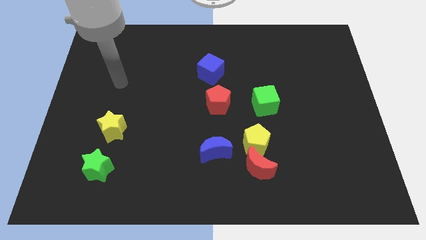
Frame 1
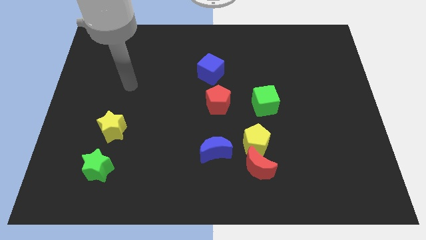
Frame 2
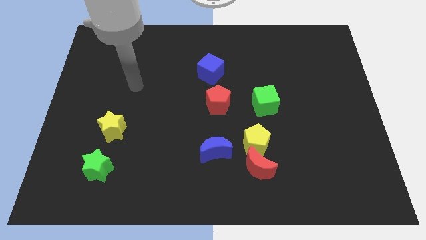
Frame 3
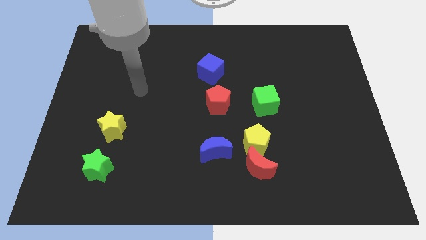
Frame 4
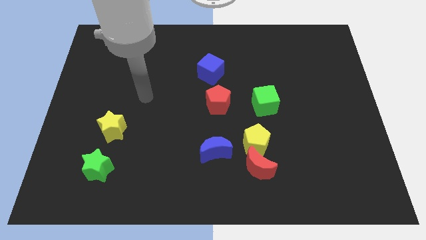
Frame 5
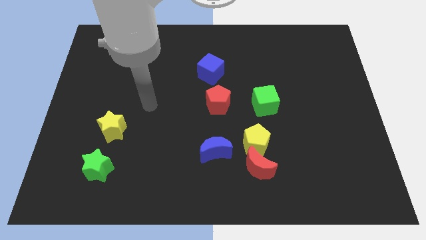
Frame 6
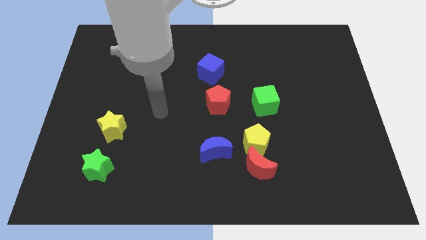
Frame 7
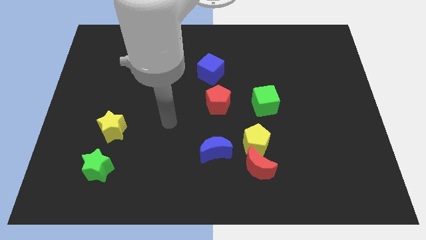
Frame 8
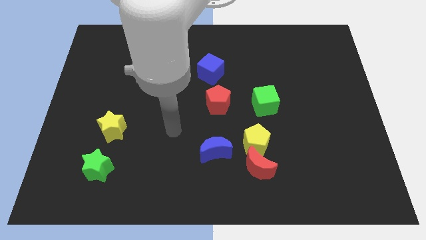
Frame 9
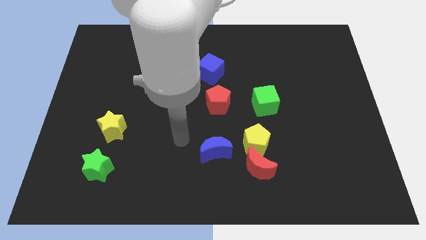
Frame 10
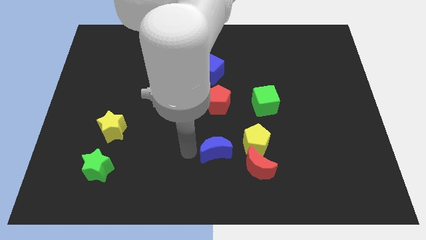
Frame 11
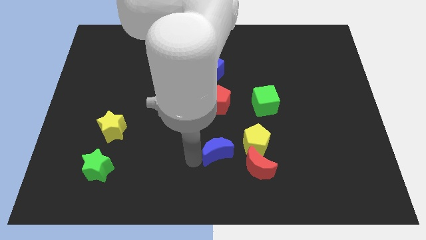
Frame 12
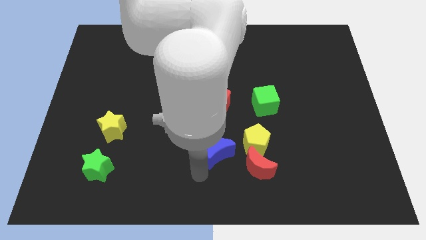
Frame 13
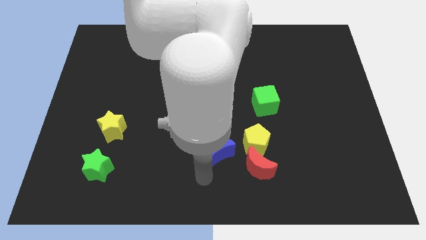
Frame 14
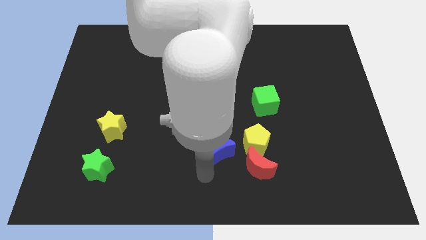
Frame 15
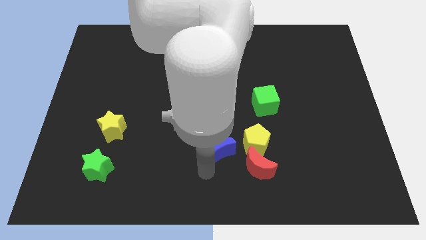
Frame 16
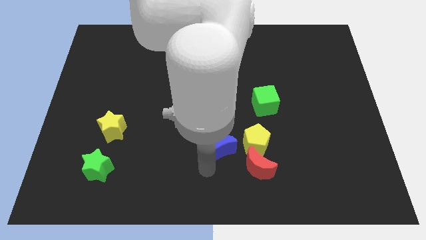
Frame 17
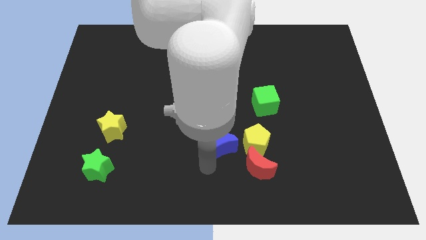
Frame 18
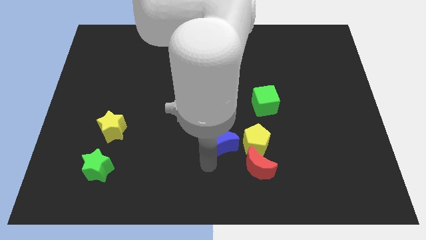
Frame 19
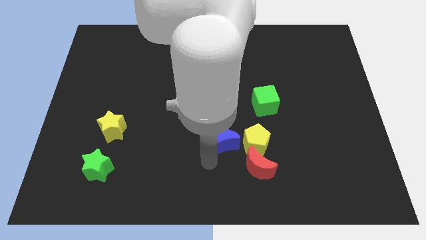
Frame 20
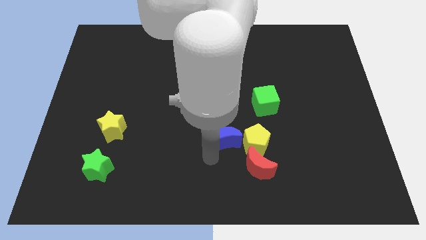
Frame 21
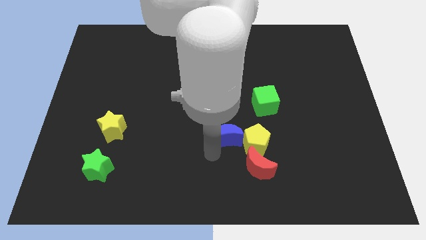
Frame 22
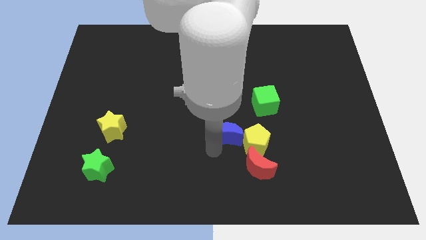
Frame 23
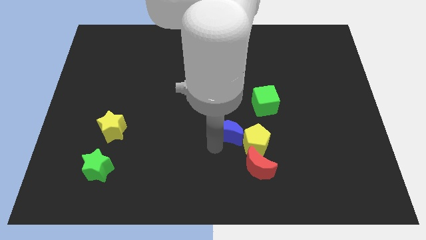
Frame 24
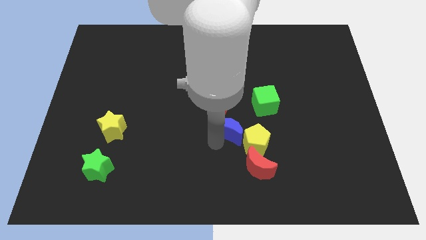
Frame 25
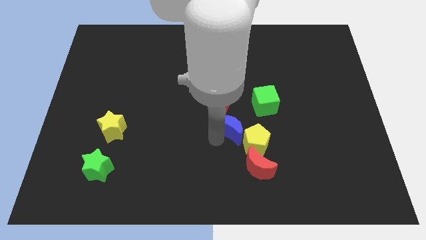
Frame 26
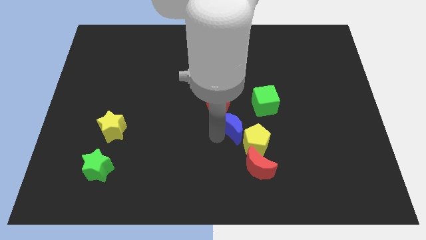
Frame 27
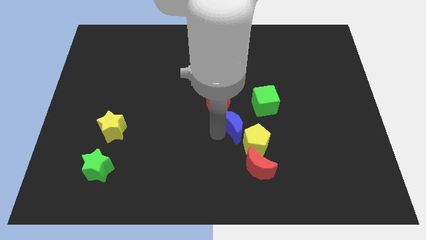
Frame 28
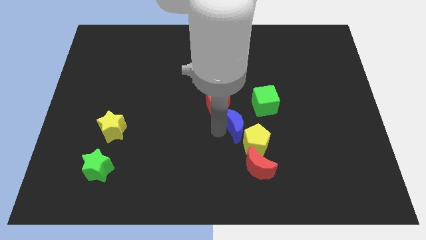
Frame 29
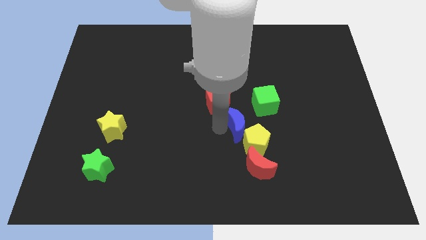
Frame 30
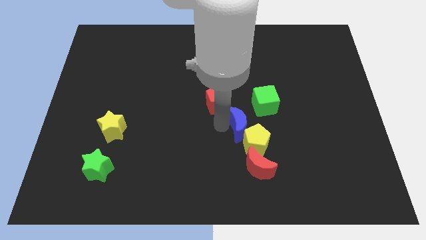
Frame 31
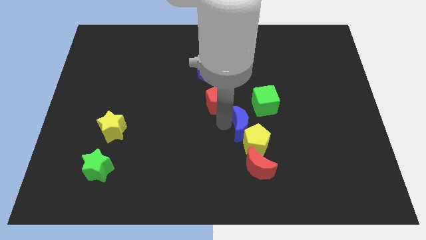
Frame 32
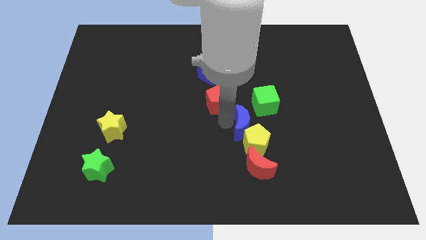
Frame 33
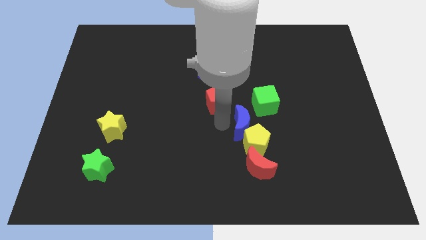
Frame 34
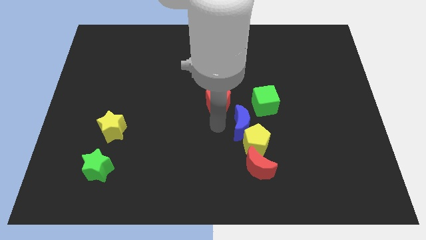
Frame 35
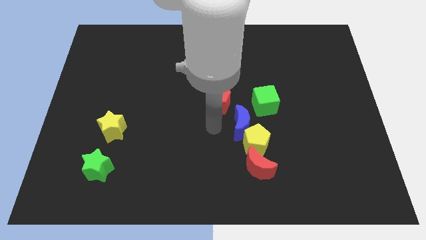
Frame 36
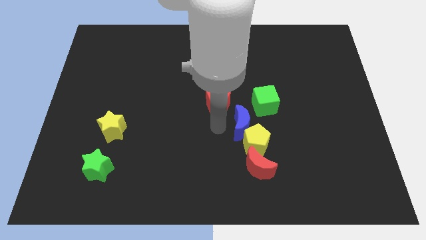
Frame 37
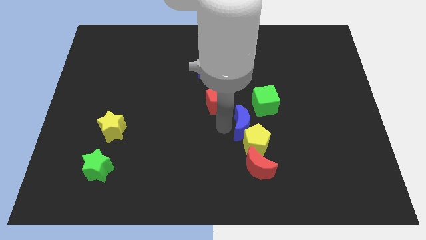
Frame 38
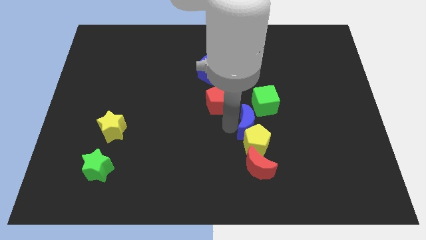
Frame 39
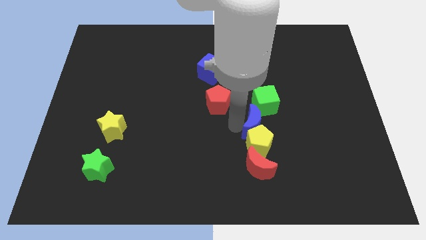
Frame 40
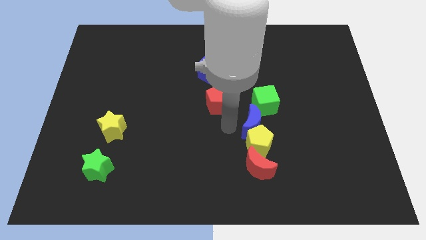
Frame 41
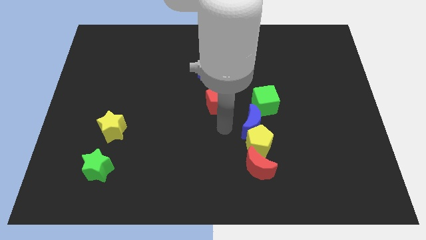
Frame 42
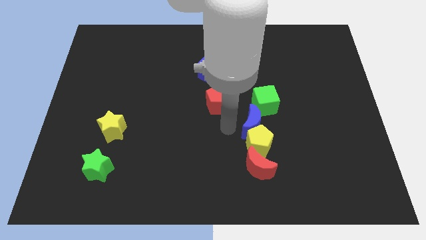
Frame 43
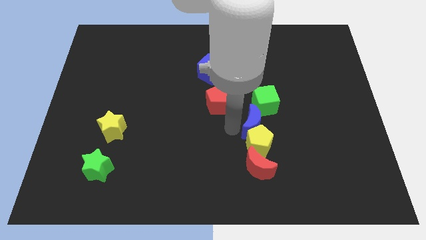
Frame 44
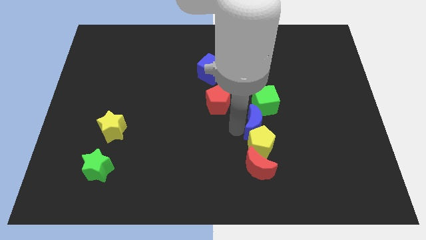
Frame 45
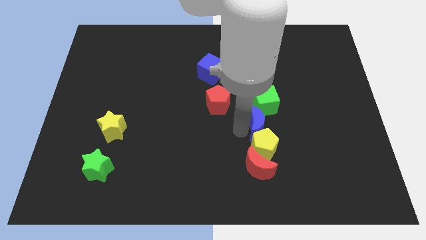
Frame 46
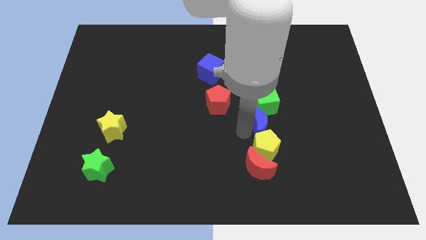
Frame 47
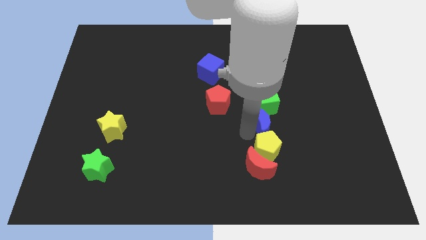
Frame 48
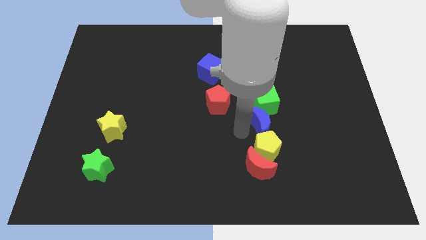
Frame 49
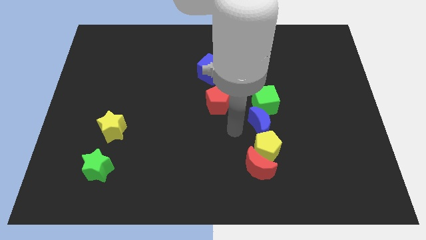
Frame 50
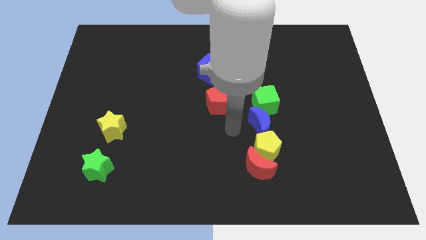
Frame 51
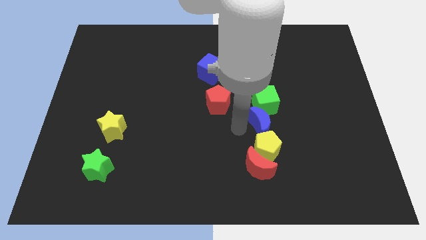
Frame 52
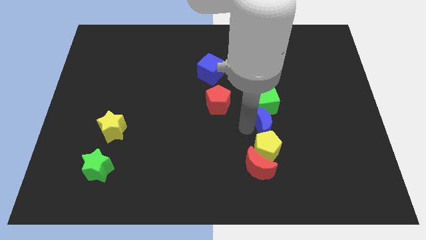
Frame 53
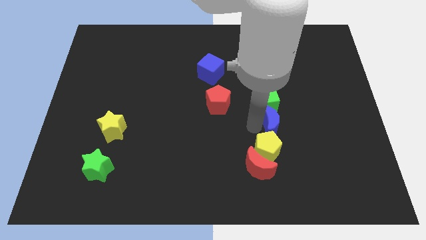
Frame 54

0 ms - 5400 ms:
put the blue moon to the bottom right side of the green cube

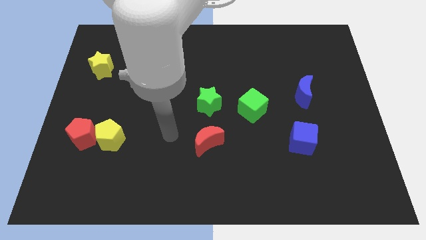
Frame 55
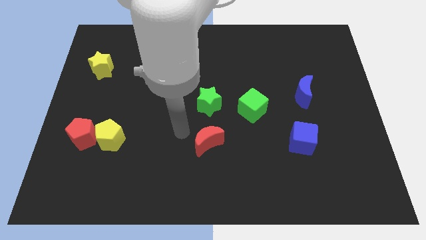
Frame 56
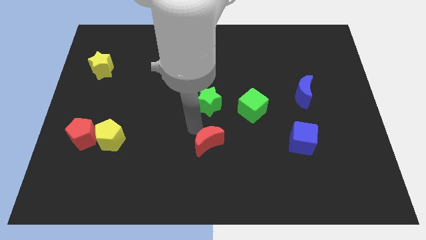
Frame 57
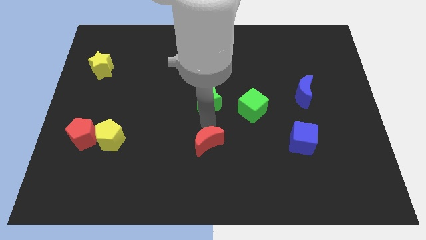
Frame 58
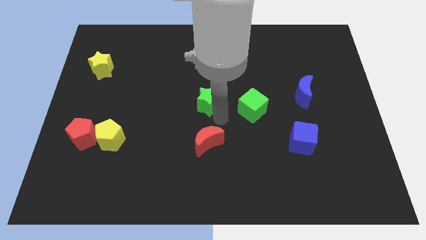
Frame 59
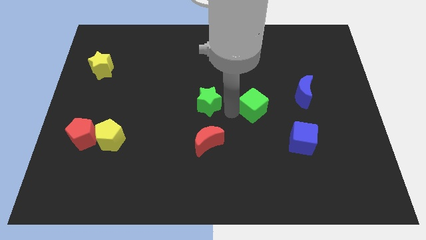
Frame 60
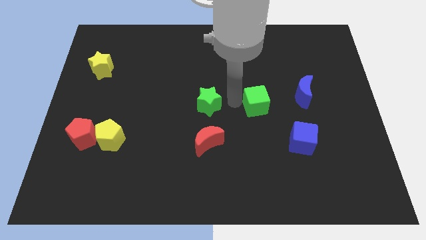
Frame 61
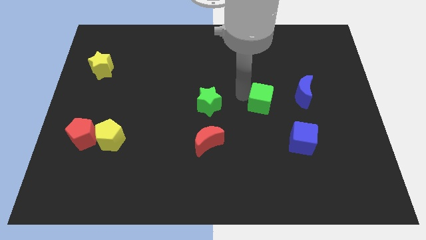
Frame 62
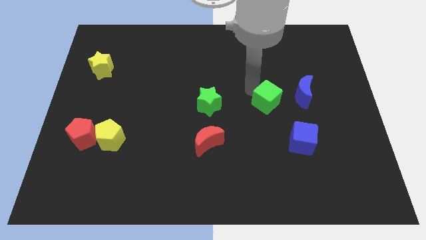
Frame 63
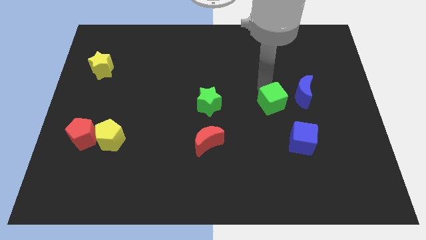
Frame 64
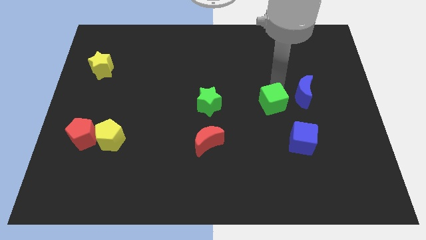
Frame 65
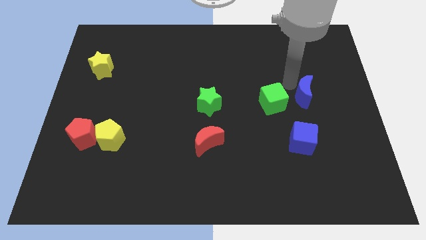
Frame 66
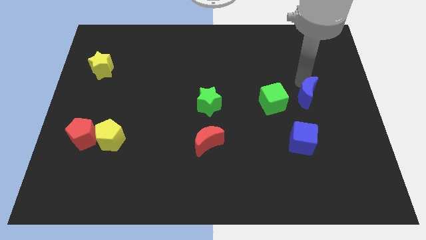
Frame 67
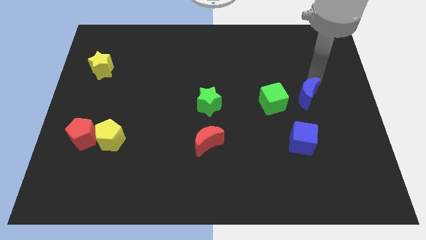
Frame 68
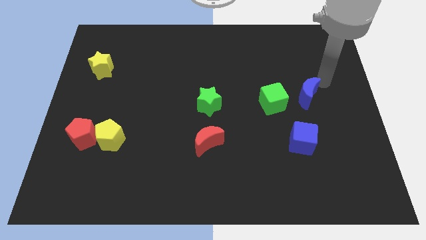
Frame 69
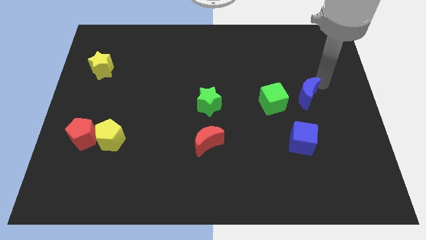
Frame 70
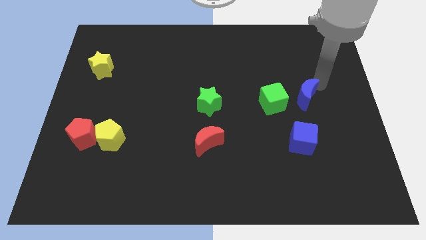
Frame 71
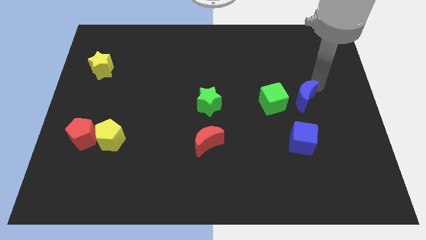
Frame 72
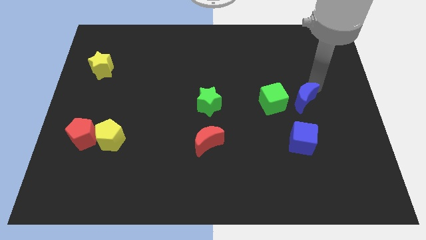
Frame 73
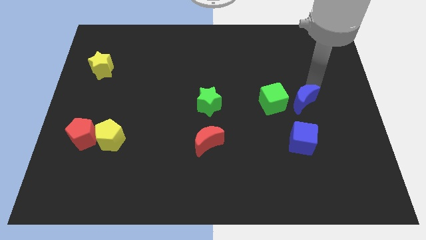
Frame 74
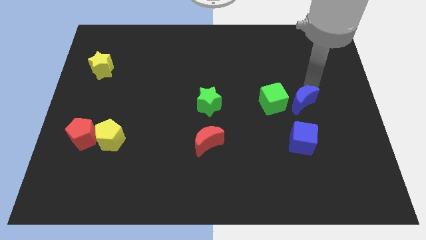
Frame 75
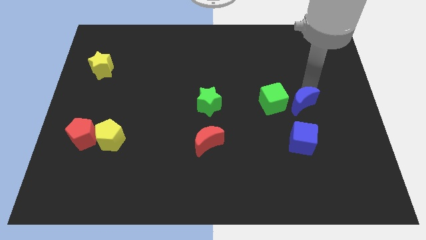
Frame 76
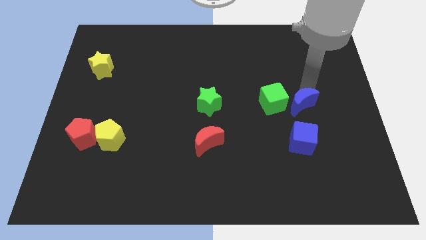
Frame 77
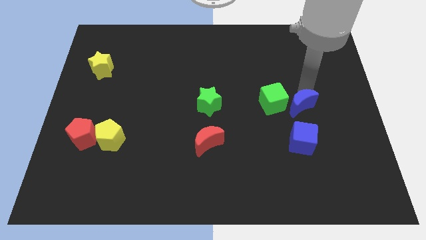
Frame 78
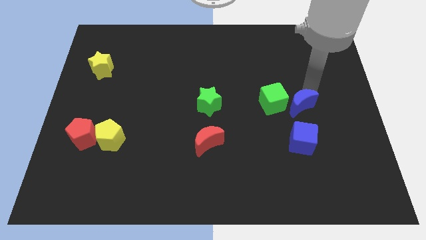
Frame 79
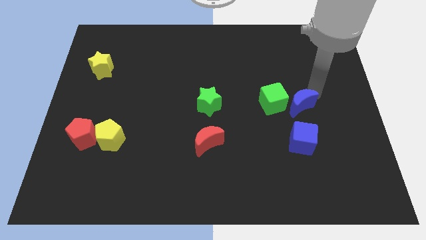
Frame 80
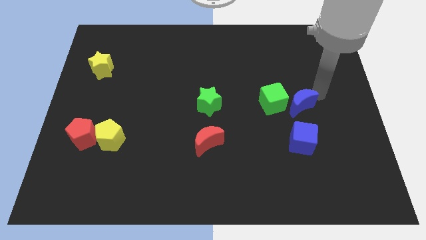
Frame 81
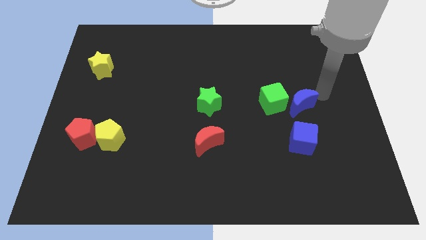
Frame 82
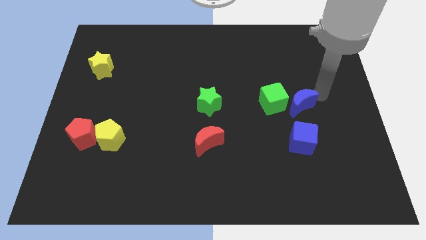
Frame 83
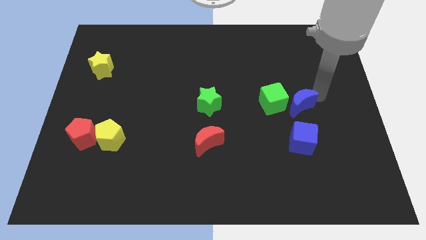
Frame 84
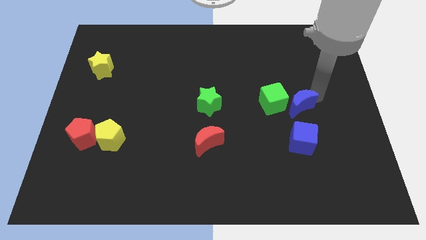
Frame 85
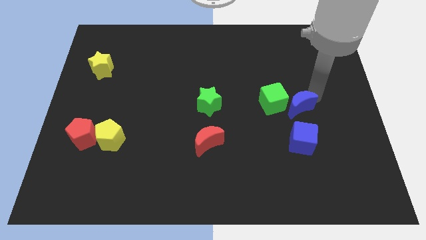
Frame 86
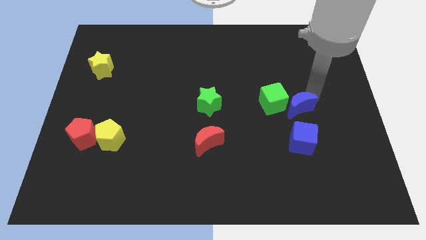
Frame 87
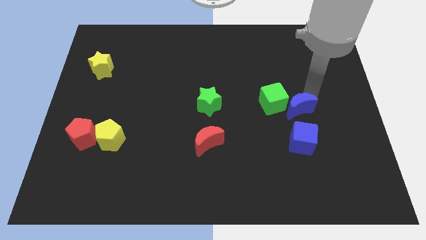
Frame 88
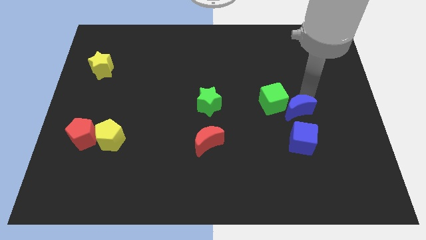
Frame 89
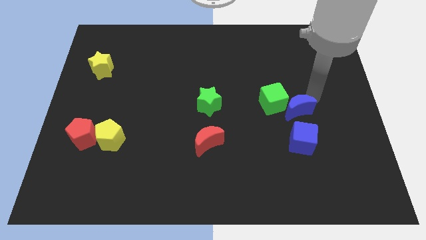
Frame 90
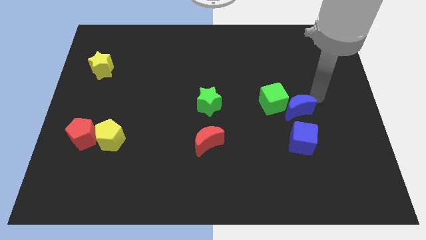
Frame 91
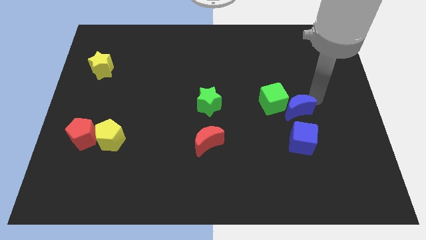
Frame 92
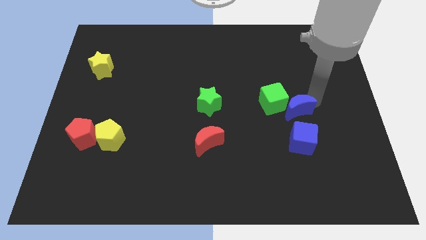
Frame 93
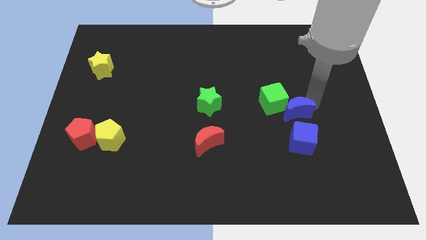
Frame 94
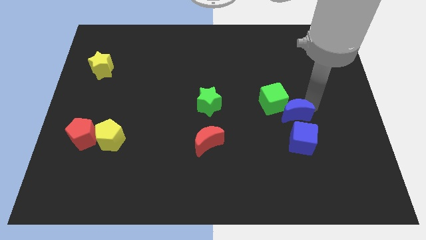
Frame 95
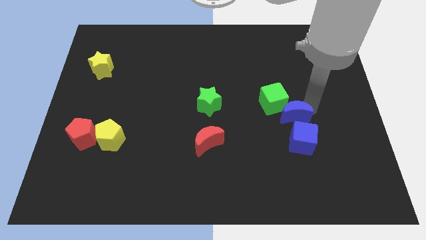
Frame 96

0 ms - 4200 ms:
slide the blue moon to the bottom side of the green cube
